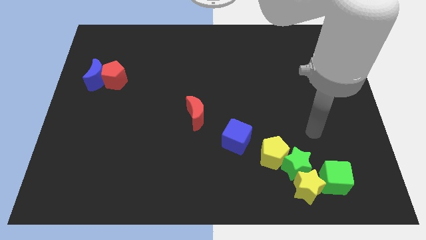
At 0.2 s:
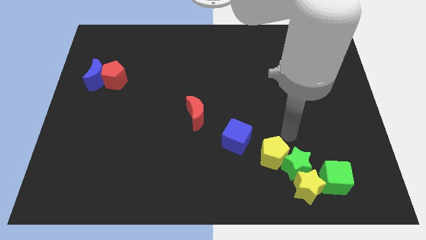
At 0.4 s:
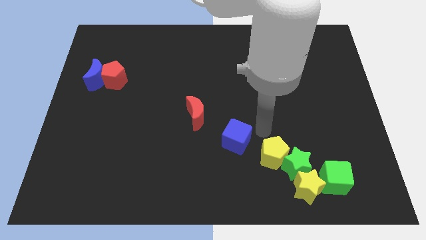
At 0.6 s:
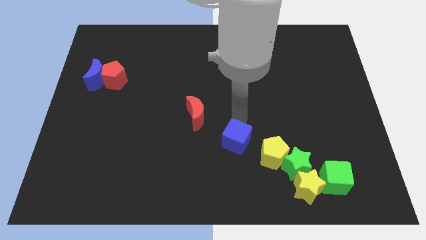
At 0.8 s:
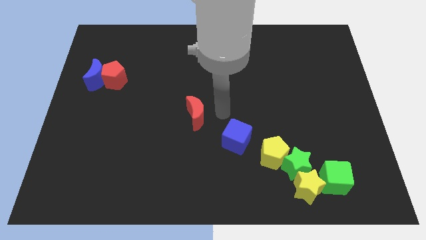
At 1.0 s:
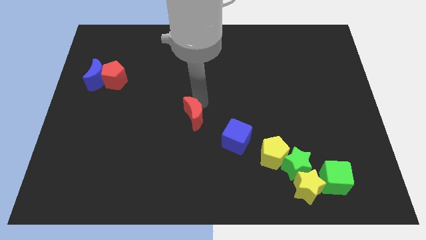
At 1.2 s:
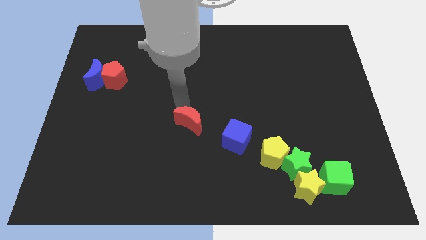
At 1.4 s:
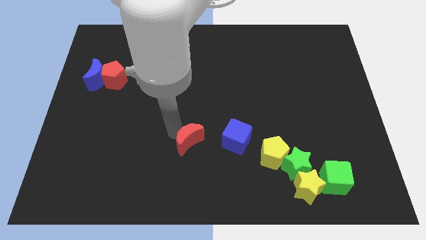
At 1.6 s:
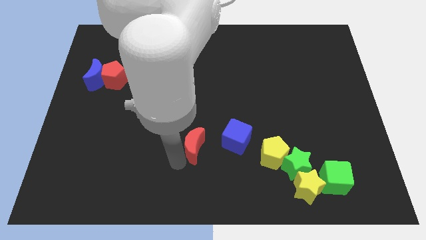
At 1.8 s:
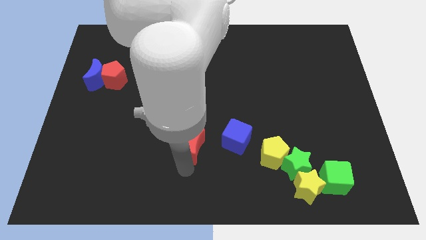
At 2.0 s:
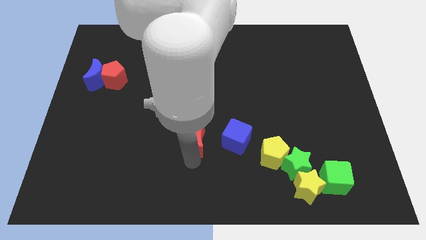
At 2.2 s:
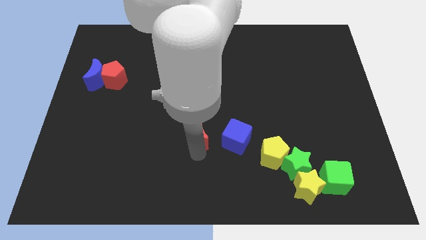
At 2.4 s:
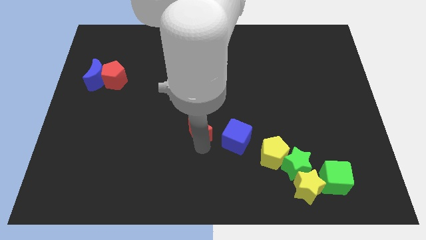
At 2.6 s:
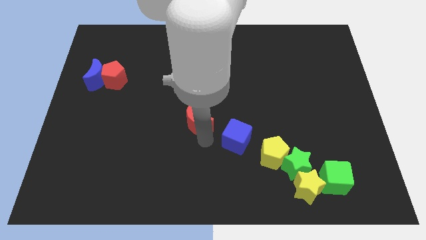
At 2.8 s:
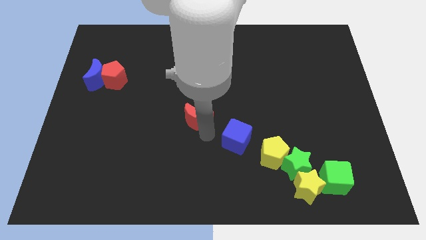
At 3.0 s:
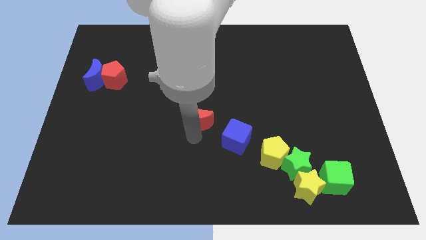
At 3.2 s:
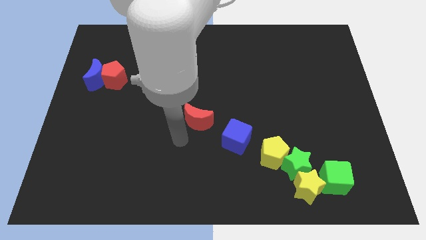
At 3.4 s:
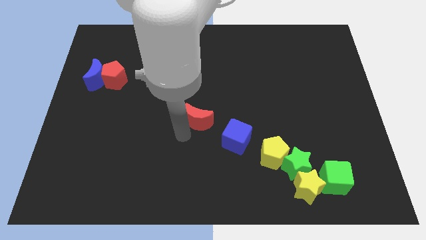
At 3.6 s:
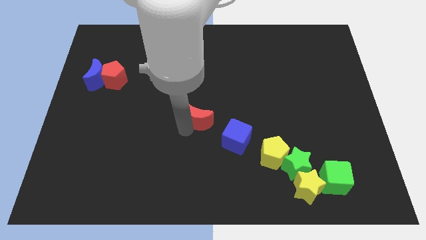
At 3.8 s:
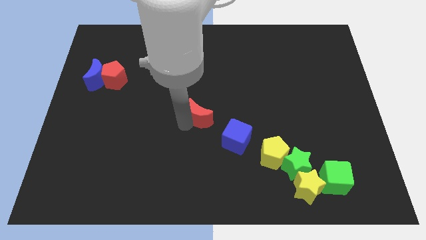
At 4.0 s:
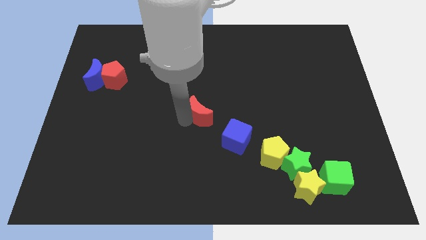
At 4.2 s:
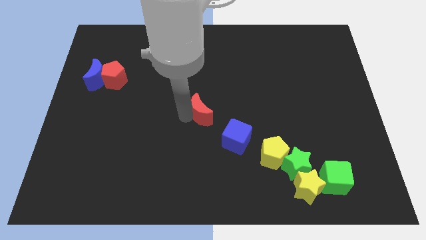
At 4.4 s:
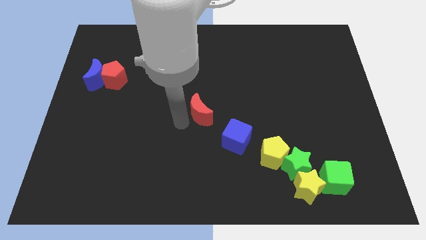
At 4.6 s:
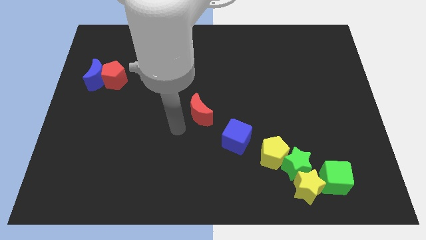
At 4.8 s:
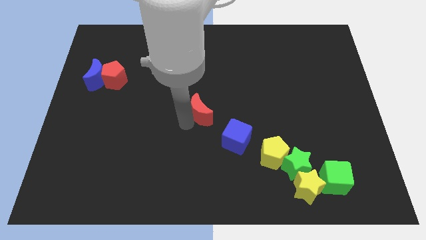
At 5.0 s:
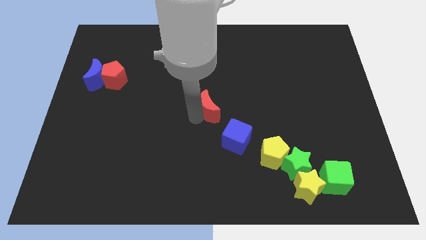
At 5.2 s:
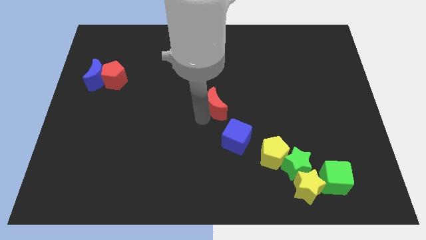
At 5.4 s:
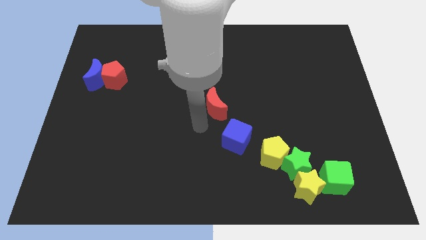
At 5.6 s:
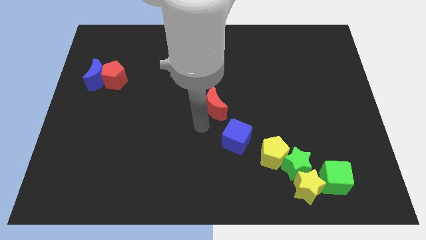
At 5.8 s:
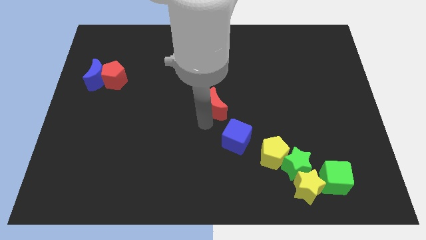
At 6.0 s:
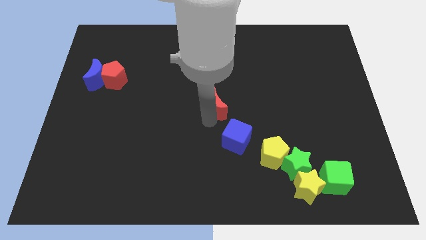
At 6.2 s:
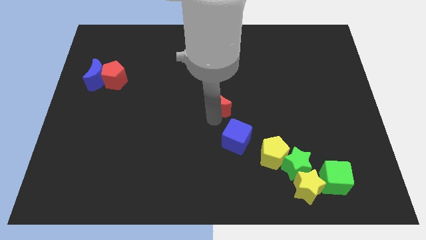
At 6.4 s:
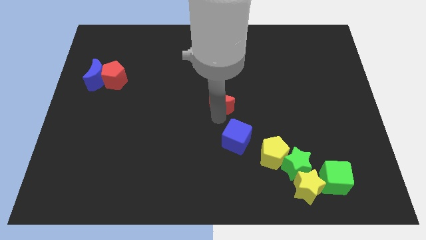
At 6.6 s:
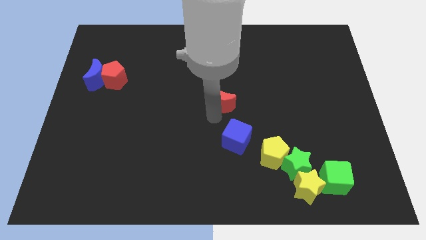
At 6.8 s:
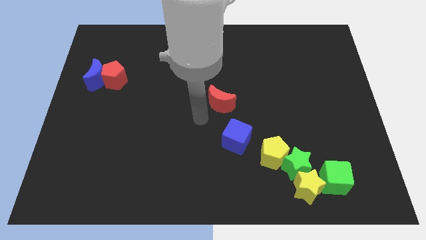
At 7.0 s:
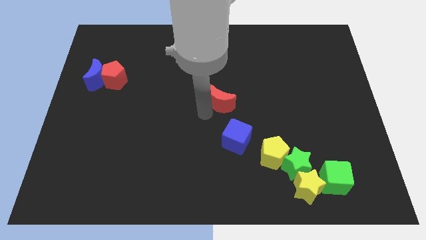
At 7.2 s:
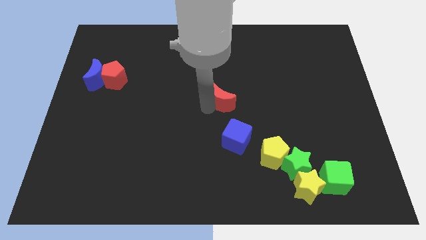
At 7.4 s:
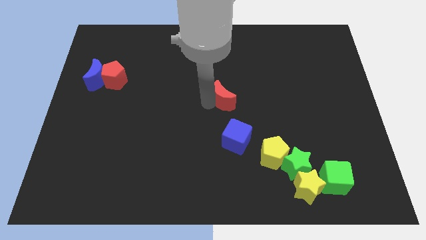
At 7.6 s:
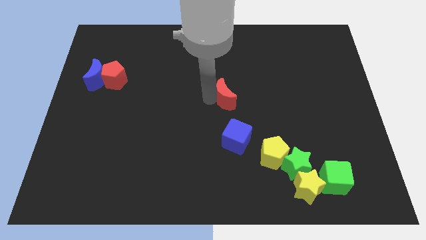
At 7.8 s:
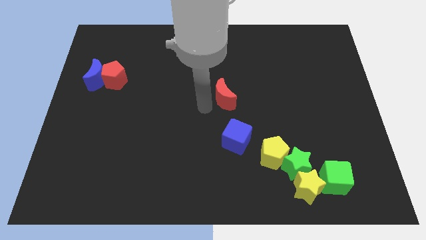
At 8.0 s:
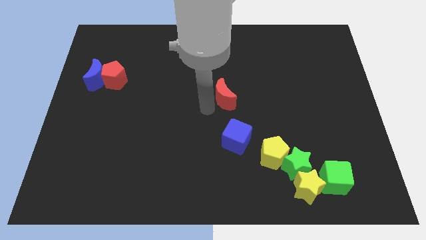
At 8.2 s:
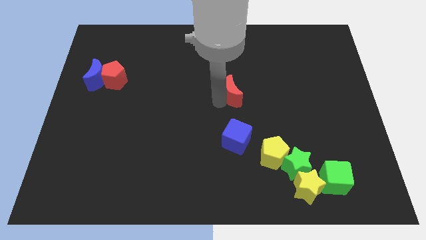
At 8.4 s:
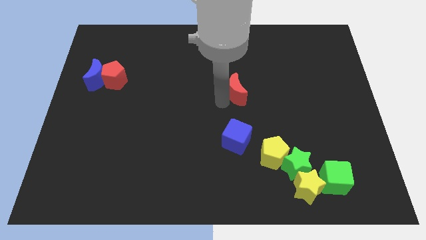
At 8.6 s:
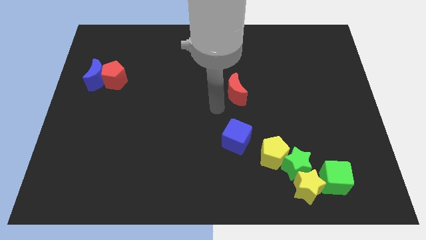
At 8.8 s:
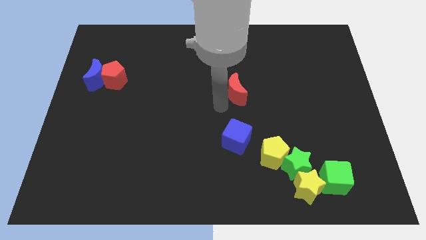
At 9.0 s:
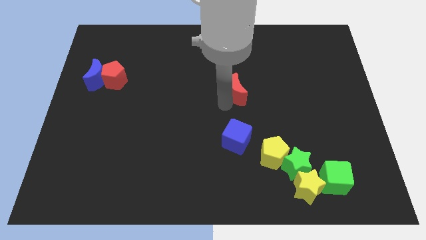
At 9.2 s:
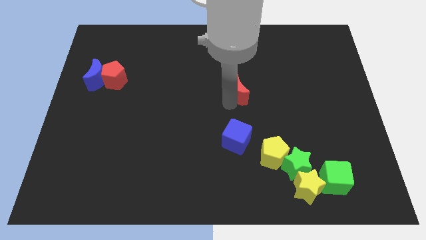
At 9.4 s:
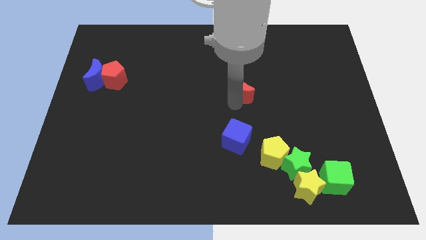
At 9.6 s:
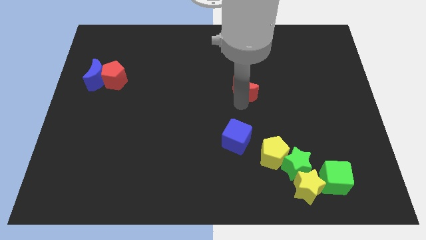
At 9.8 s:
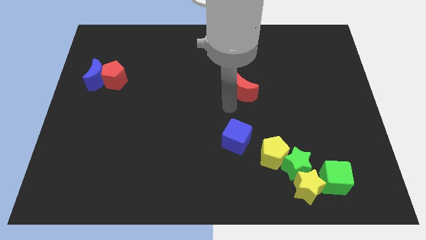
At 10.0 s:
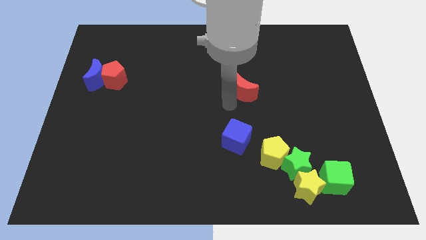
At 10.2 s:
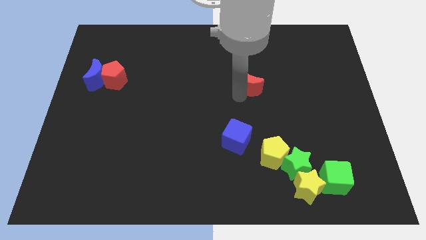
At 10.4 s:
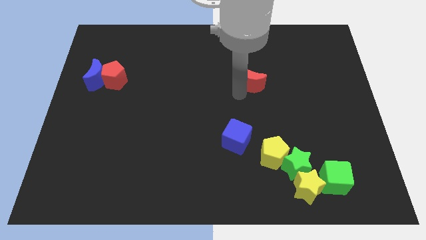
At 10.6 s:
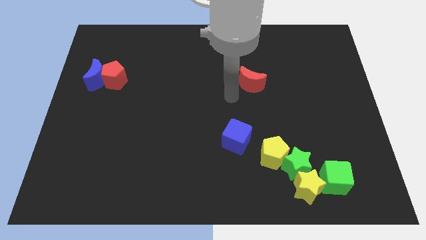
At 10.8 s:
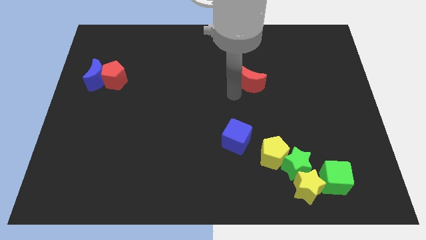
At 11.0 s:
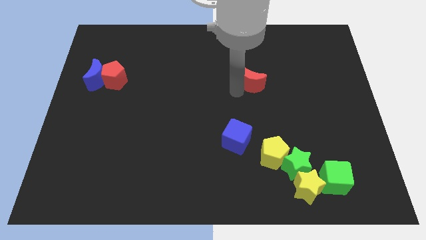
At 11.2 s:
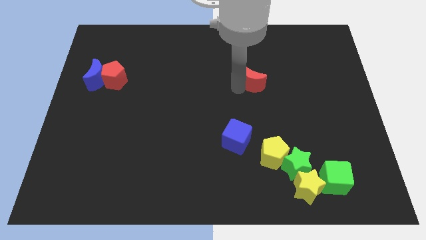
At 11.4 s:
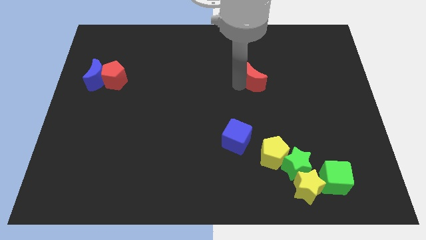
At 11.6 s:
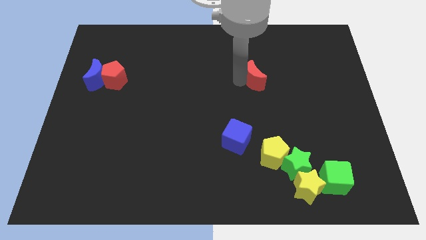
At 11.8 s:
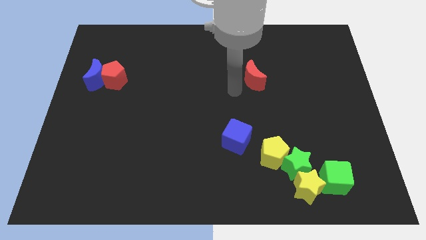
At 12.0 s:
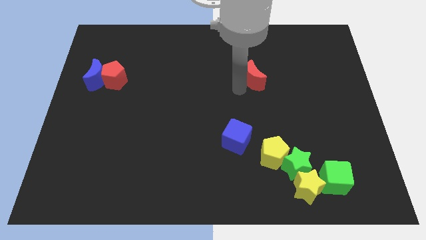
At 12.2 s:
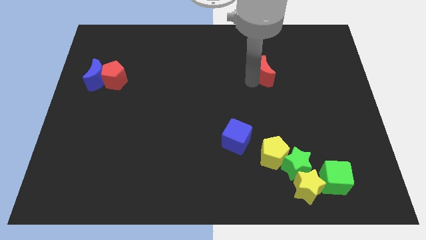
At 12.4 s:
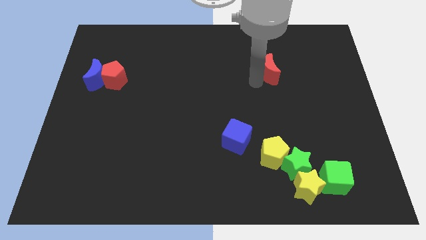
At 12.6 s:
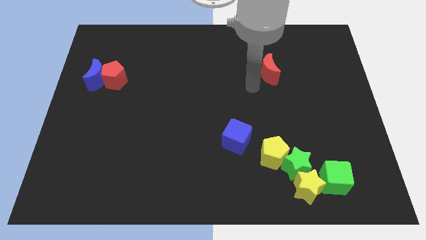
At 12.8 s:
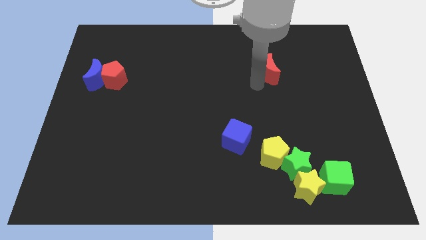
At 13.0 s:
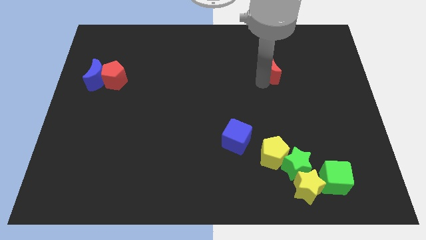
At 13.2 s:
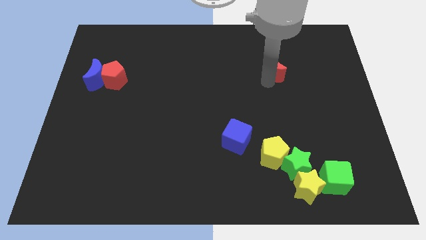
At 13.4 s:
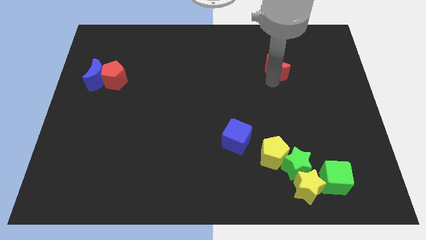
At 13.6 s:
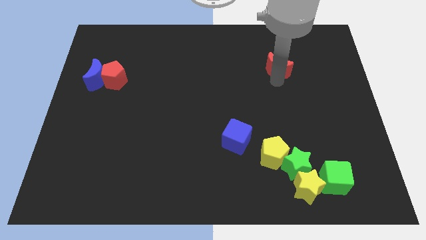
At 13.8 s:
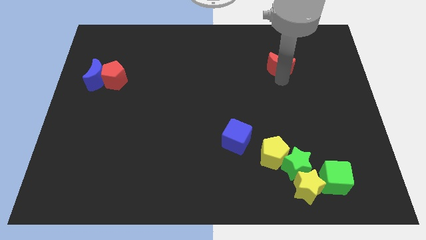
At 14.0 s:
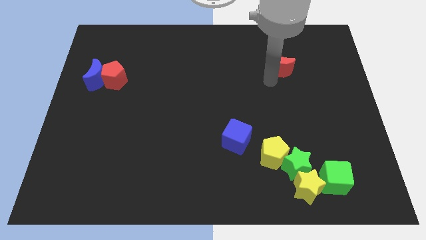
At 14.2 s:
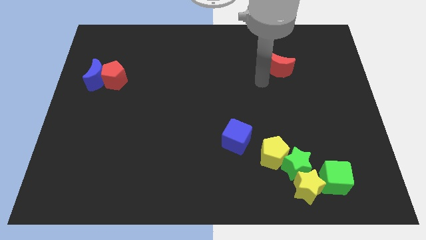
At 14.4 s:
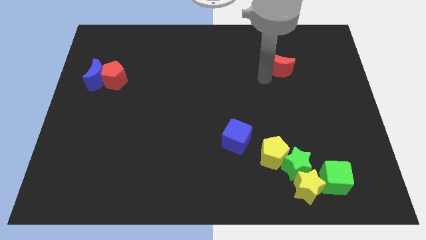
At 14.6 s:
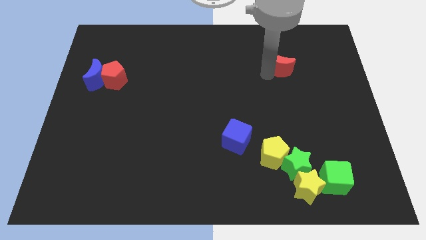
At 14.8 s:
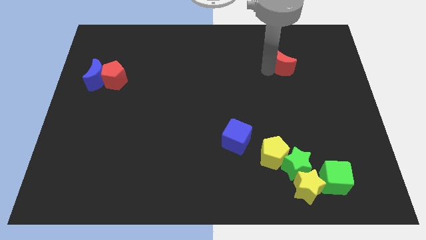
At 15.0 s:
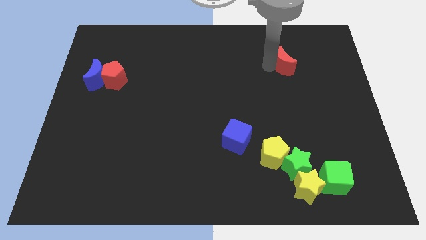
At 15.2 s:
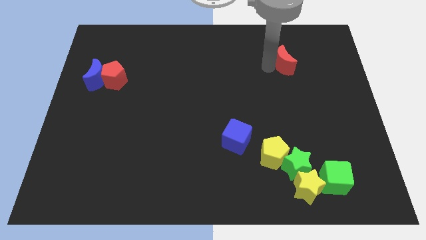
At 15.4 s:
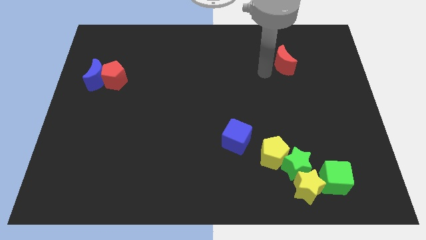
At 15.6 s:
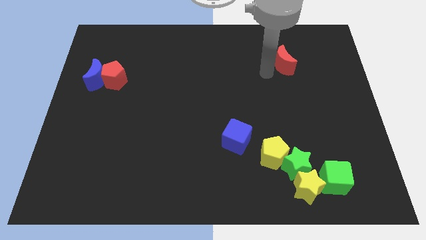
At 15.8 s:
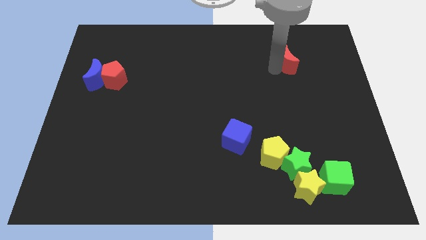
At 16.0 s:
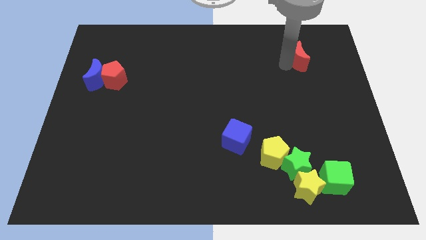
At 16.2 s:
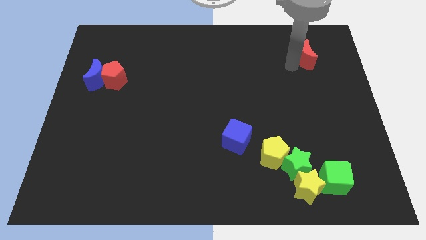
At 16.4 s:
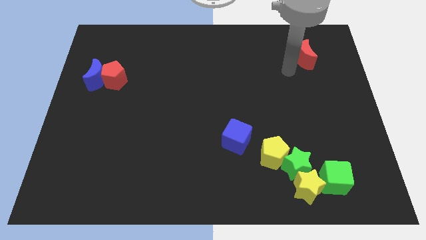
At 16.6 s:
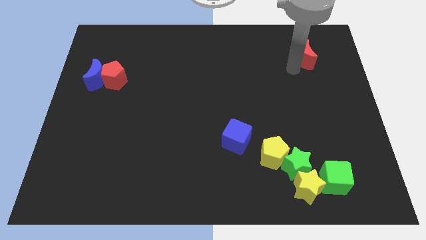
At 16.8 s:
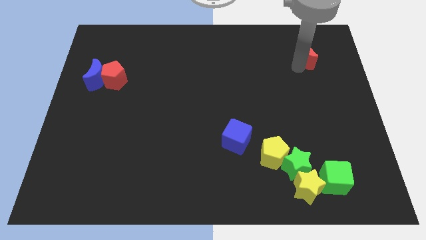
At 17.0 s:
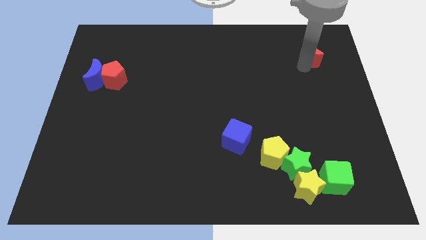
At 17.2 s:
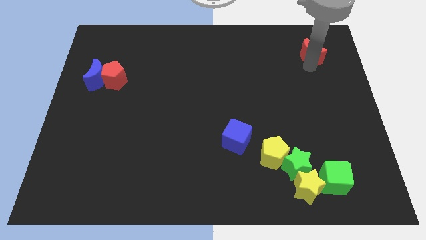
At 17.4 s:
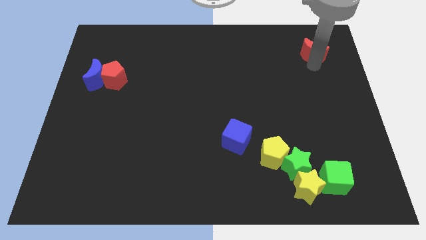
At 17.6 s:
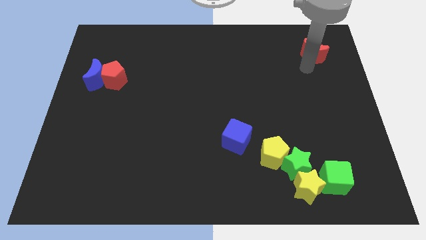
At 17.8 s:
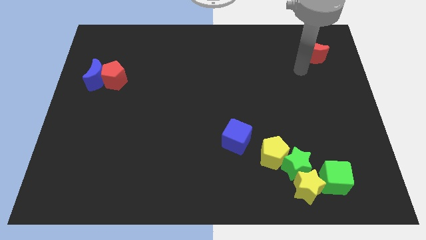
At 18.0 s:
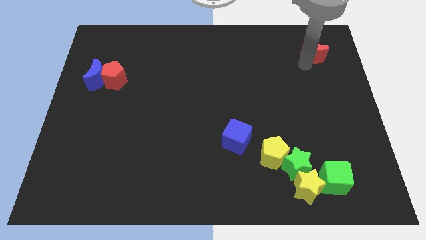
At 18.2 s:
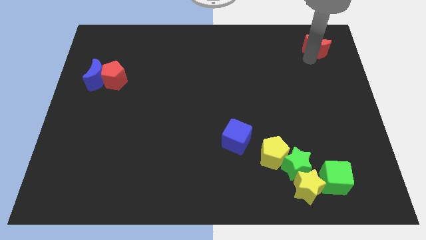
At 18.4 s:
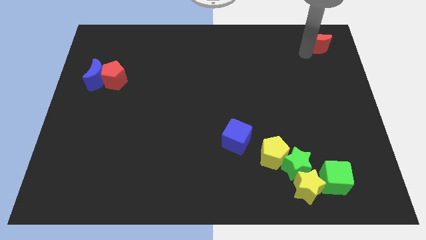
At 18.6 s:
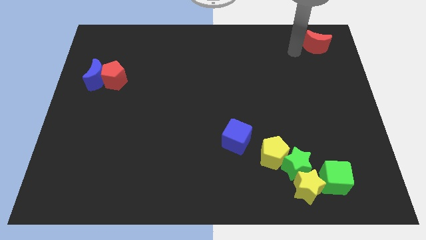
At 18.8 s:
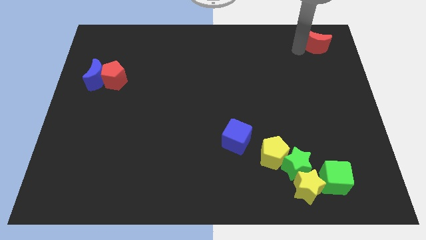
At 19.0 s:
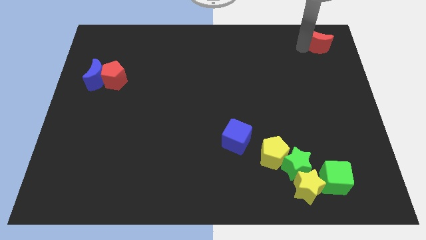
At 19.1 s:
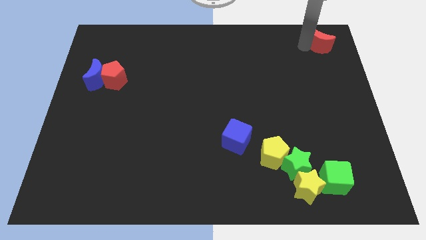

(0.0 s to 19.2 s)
slide the red moon to the upper right corner
